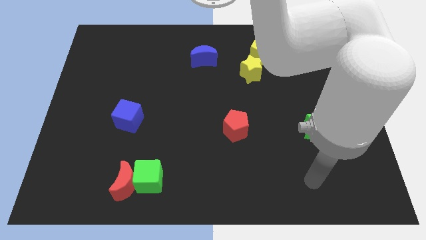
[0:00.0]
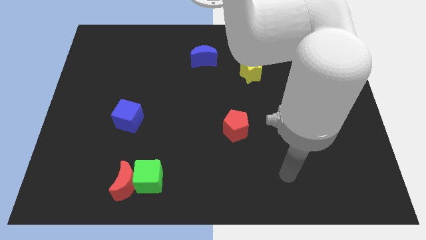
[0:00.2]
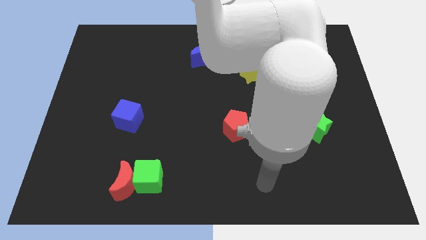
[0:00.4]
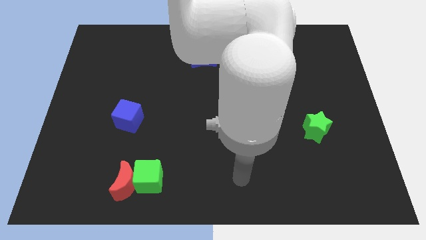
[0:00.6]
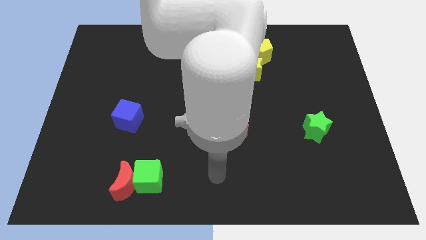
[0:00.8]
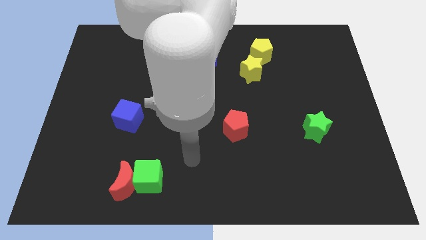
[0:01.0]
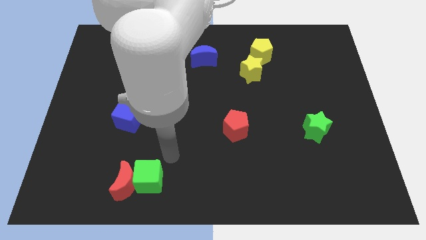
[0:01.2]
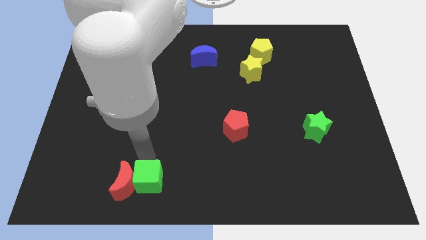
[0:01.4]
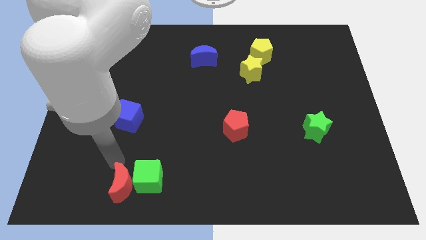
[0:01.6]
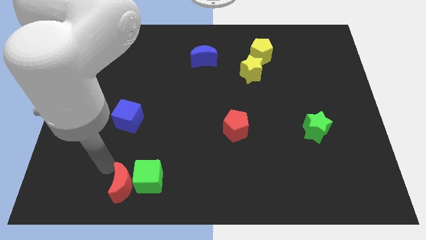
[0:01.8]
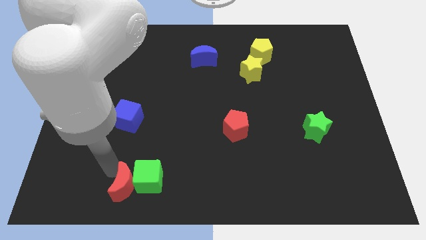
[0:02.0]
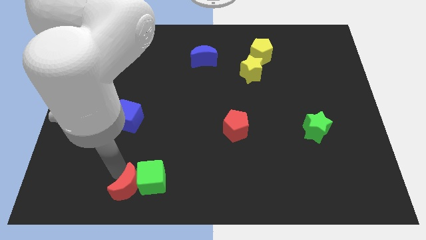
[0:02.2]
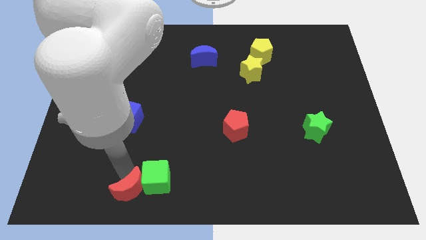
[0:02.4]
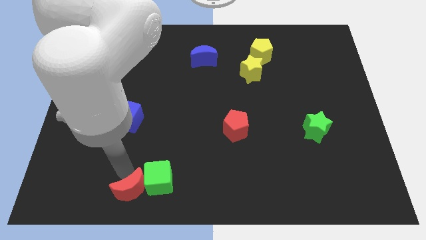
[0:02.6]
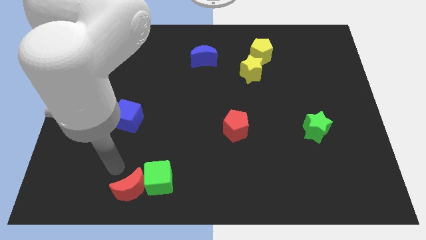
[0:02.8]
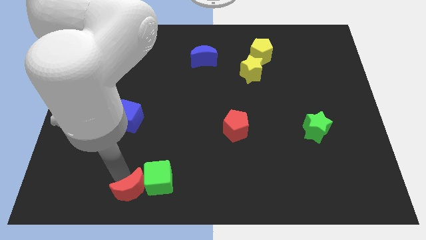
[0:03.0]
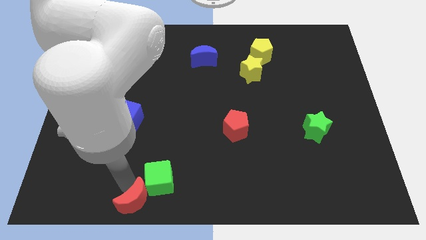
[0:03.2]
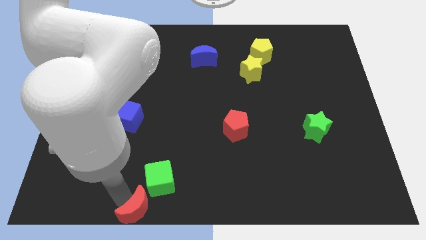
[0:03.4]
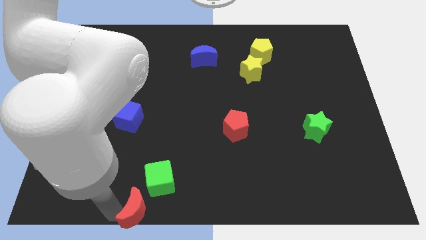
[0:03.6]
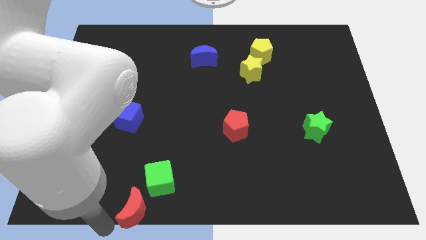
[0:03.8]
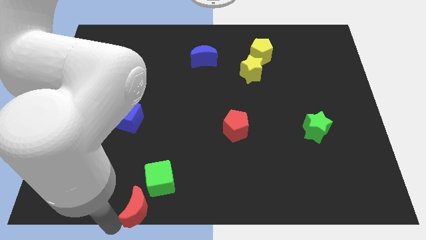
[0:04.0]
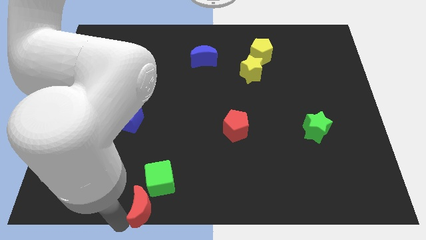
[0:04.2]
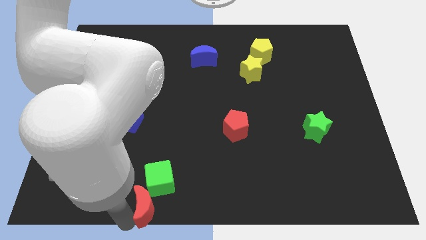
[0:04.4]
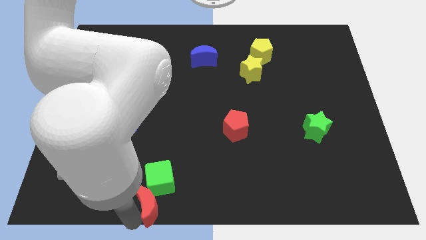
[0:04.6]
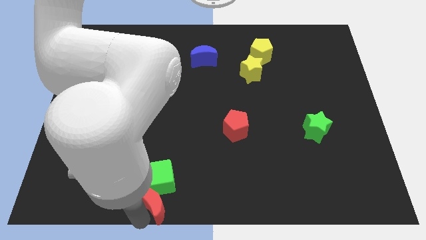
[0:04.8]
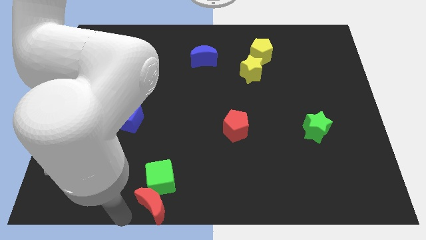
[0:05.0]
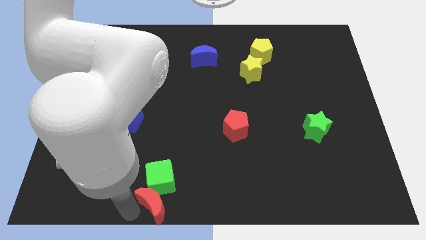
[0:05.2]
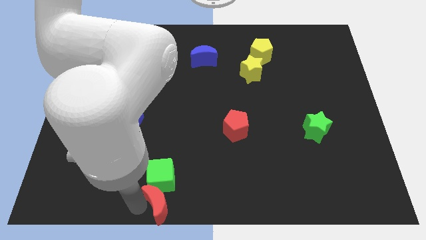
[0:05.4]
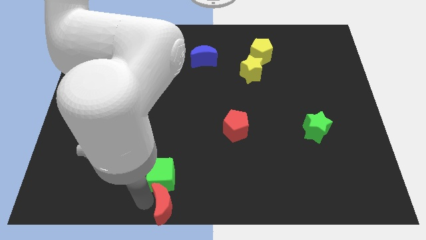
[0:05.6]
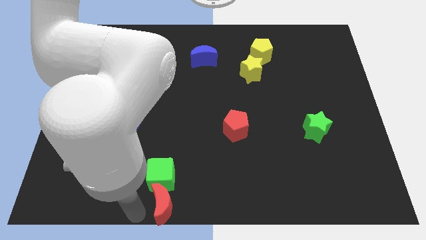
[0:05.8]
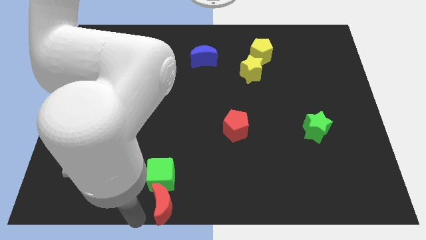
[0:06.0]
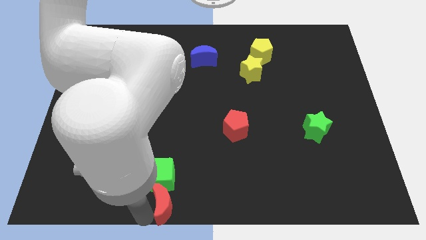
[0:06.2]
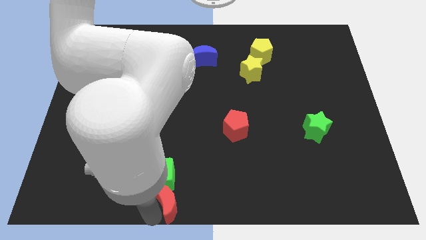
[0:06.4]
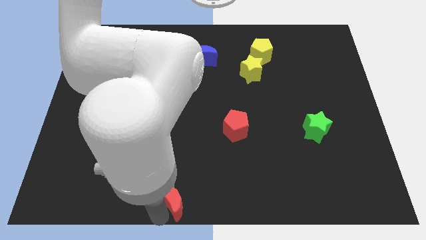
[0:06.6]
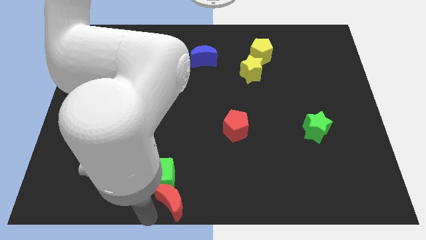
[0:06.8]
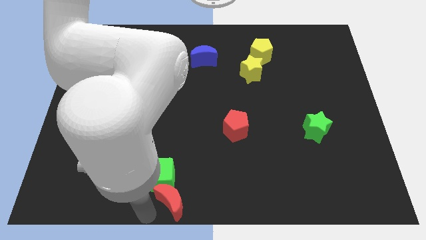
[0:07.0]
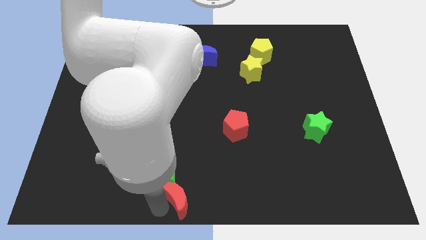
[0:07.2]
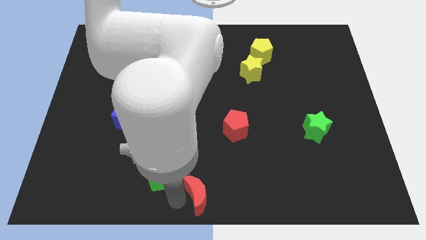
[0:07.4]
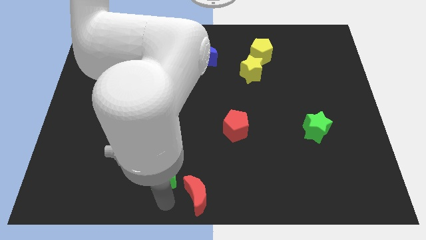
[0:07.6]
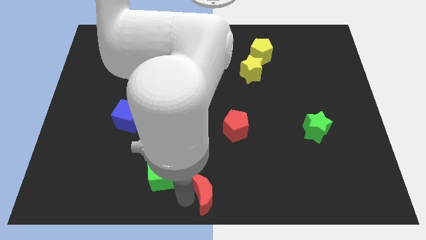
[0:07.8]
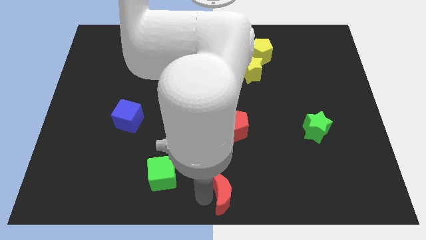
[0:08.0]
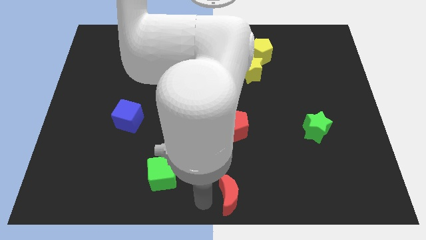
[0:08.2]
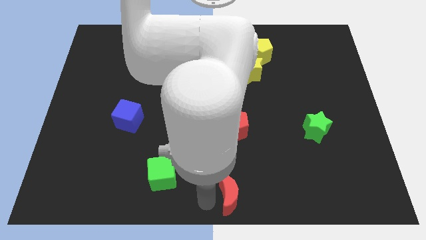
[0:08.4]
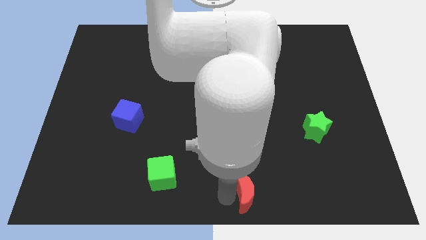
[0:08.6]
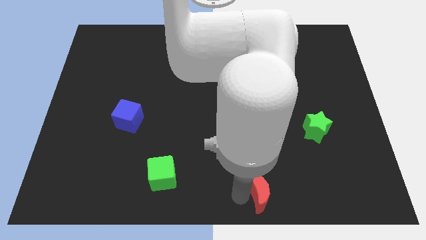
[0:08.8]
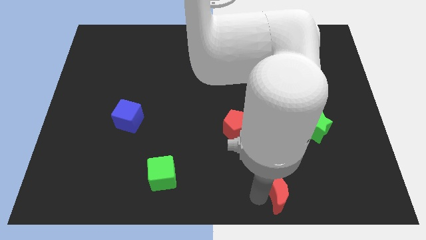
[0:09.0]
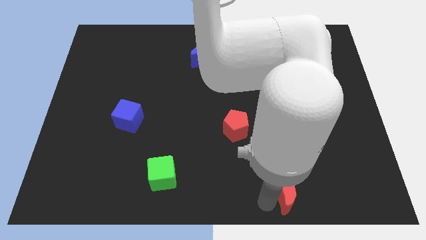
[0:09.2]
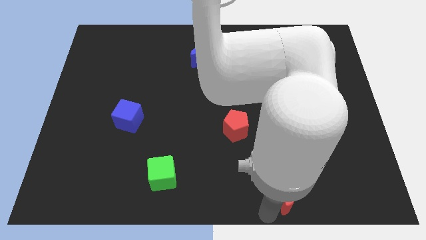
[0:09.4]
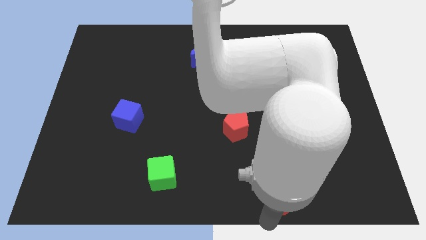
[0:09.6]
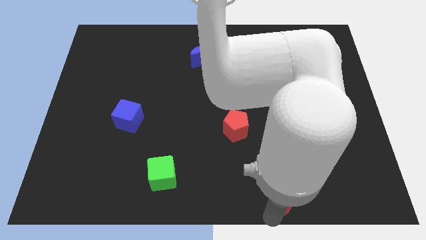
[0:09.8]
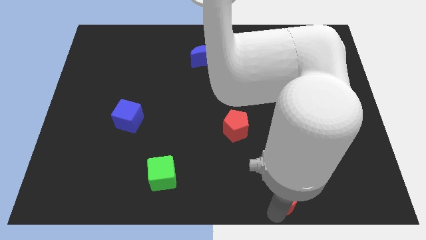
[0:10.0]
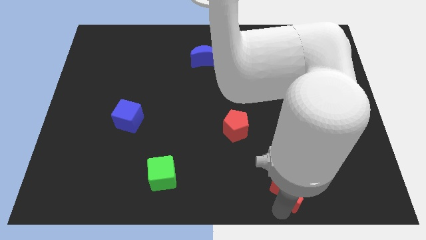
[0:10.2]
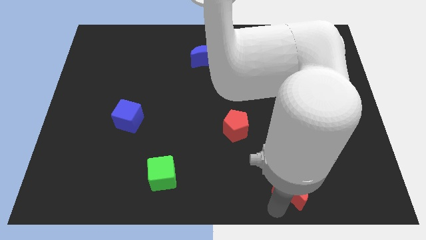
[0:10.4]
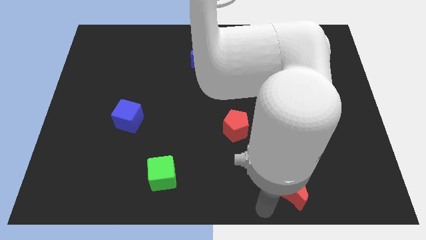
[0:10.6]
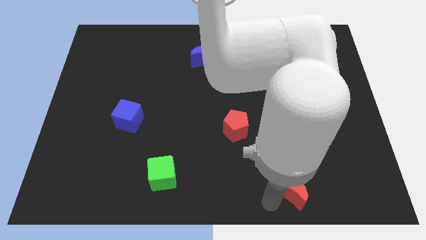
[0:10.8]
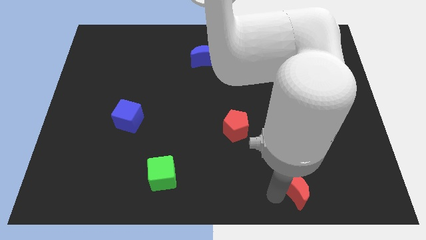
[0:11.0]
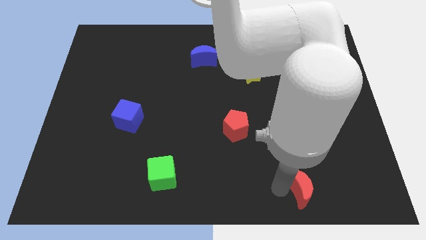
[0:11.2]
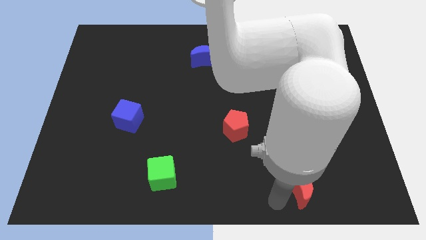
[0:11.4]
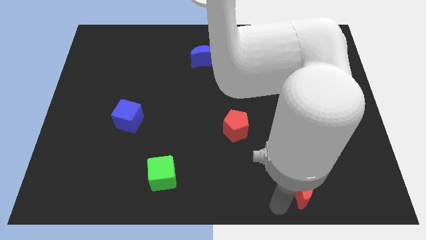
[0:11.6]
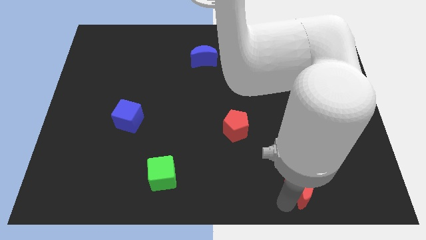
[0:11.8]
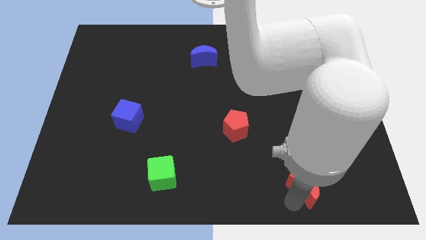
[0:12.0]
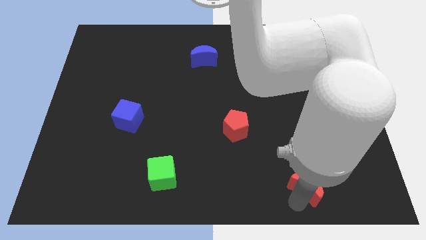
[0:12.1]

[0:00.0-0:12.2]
slide the red moon below the green star
